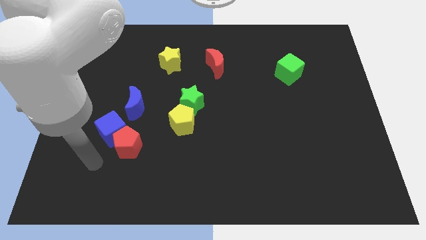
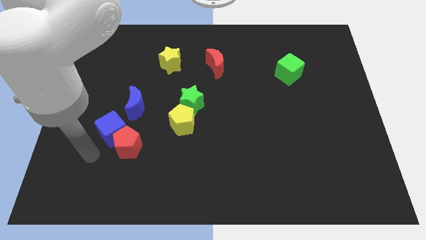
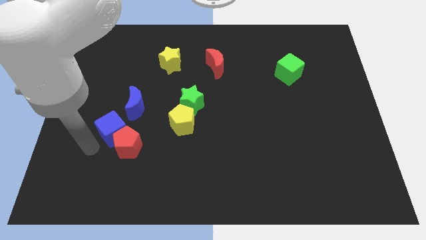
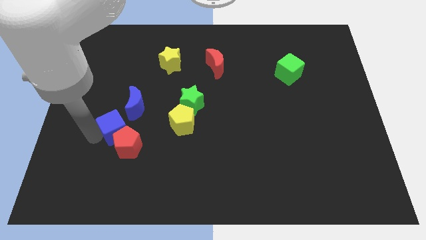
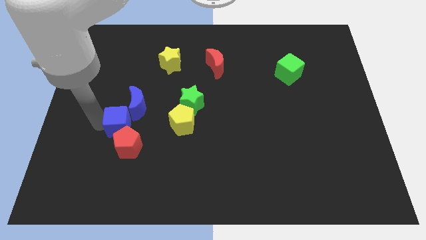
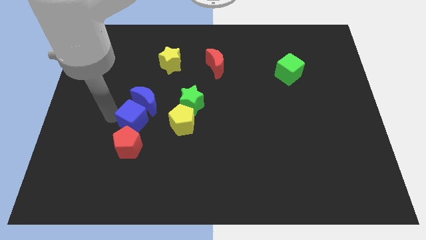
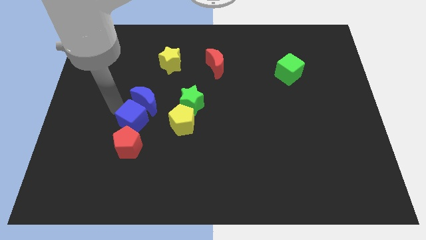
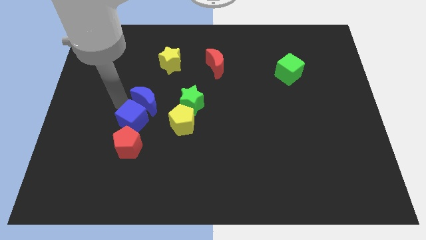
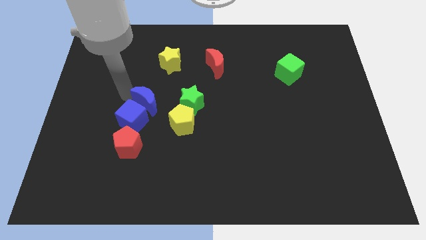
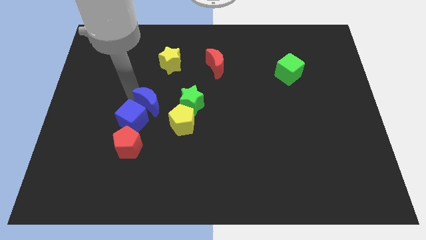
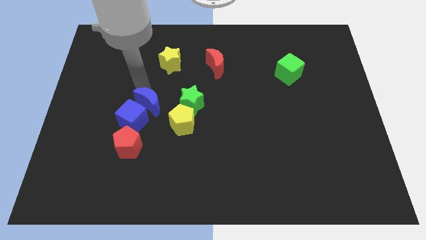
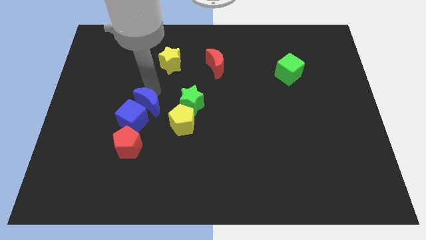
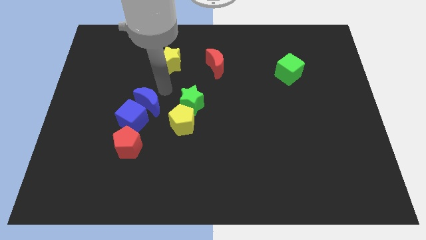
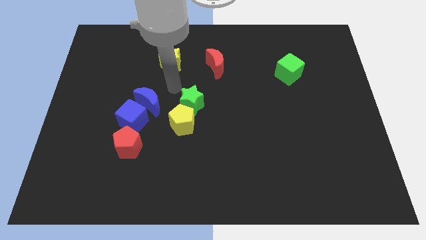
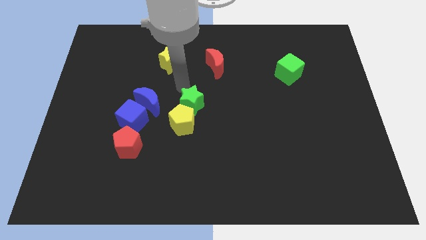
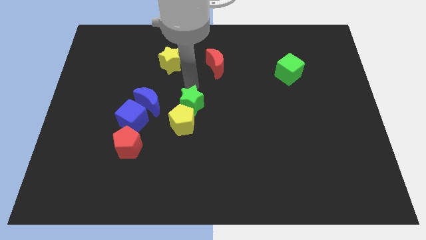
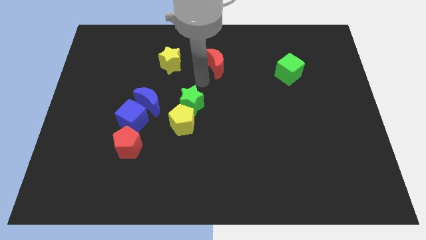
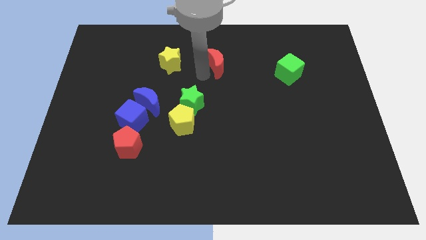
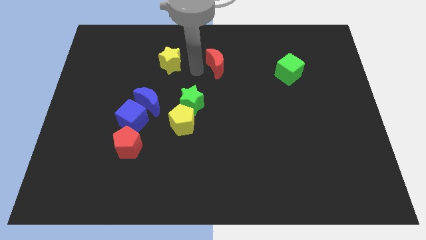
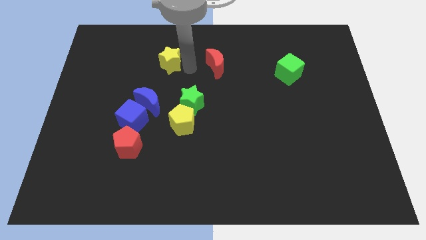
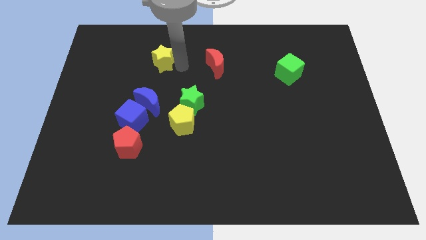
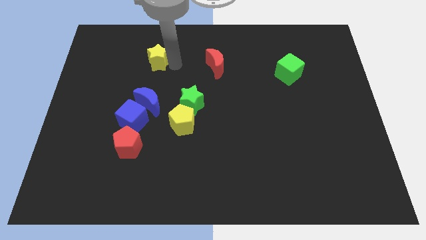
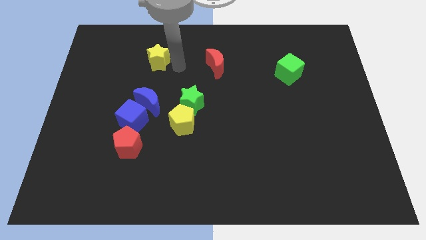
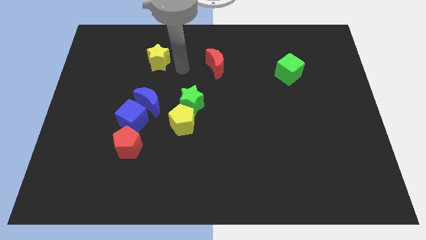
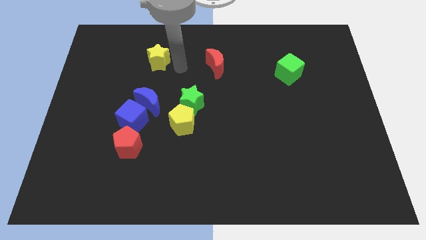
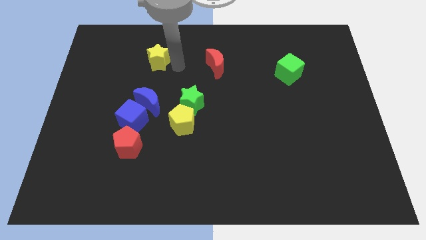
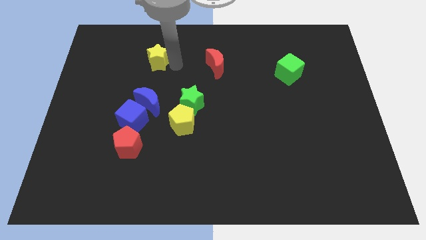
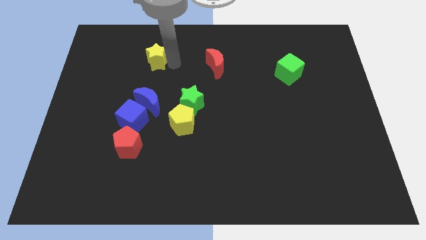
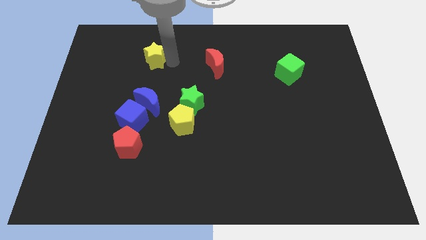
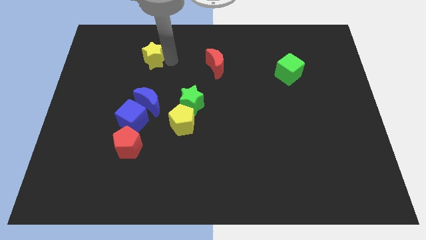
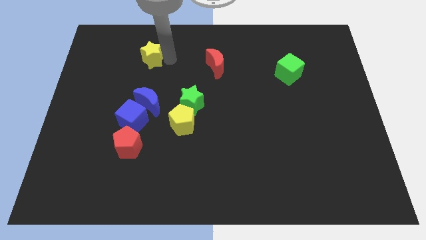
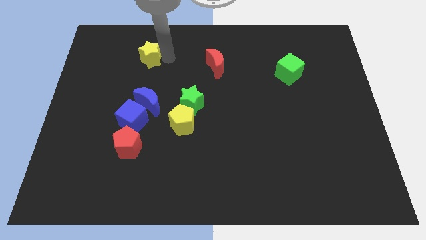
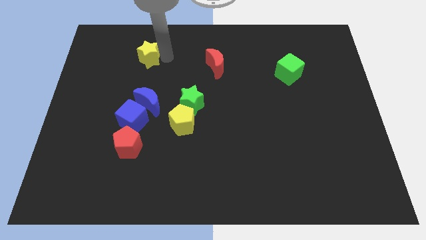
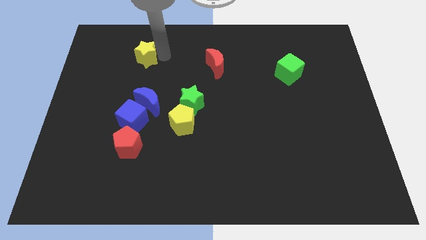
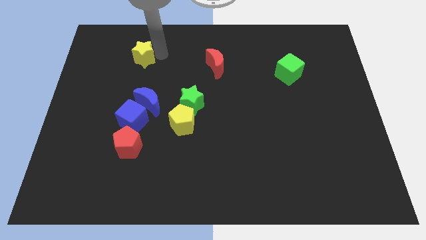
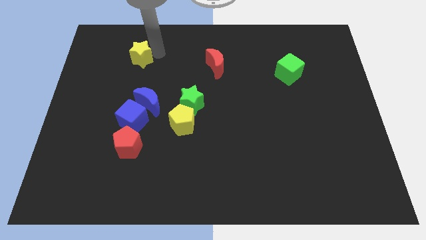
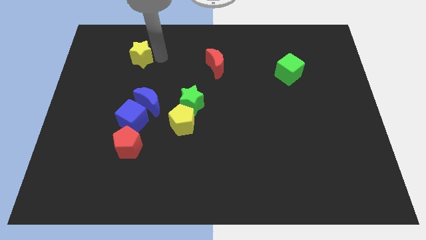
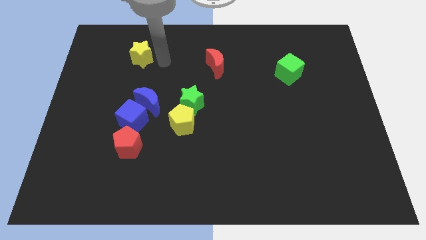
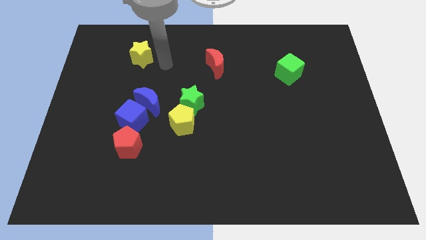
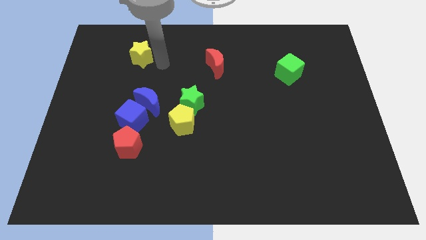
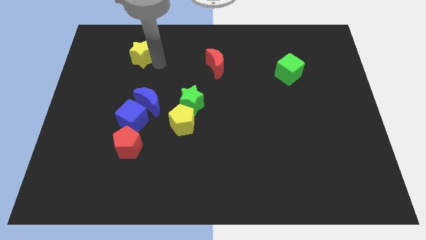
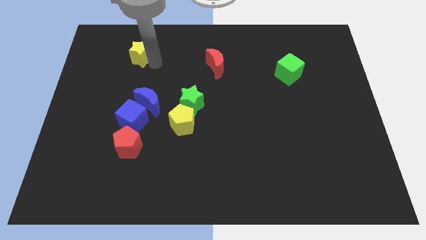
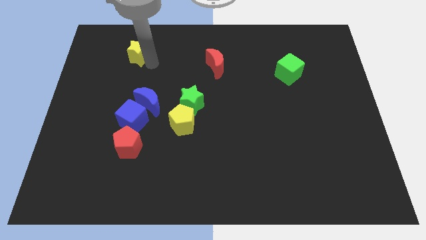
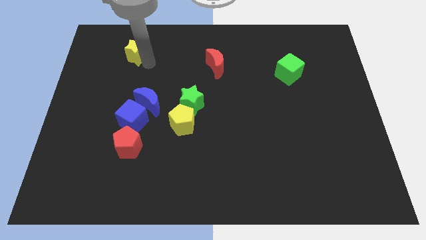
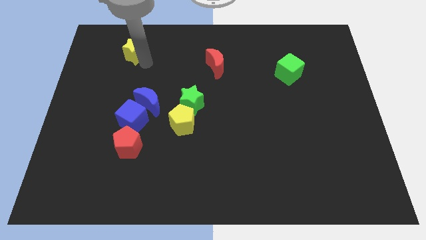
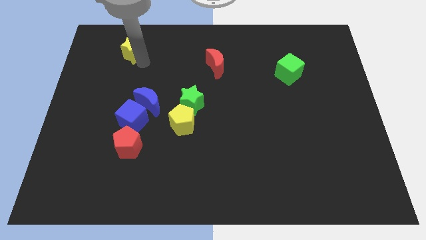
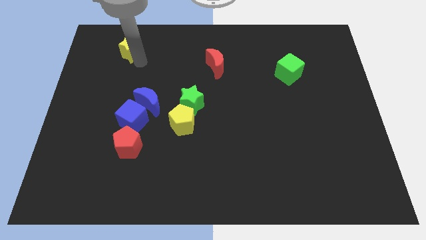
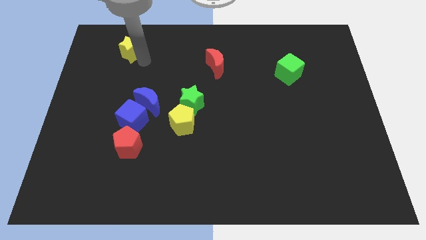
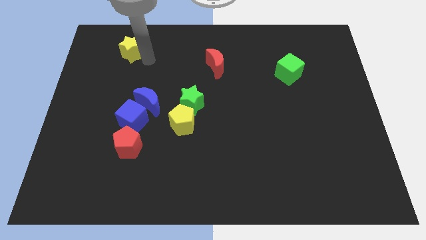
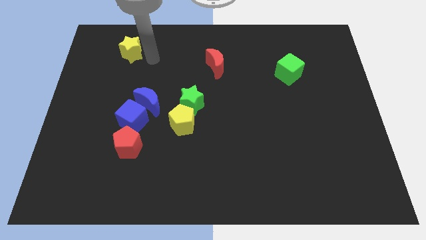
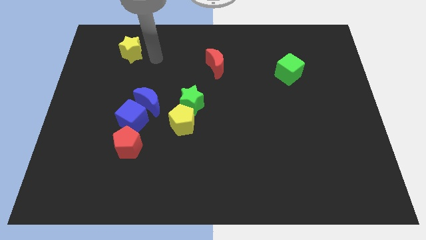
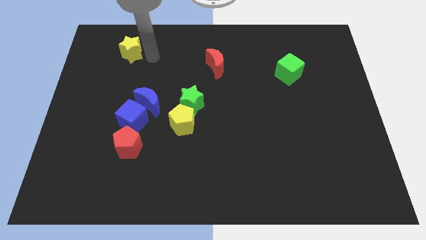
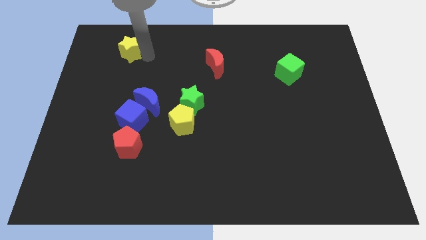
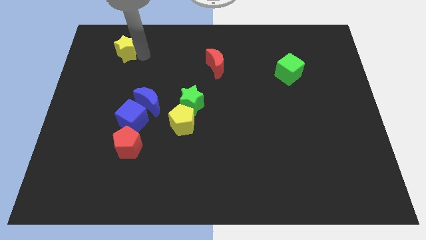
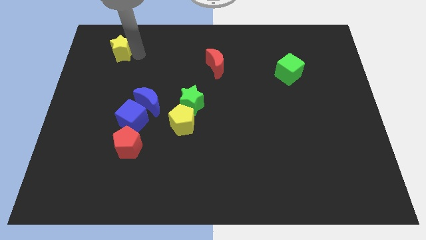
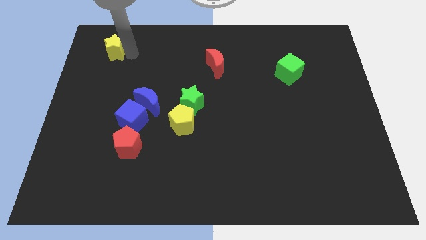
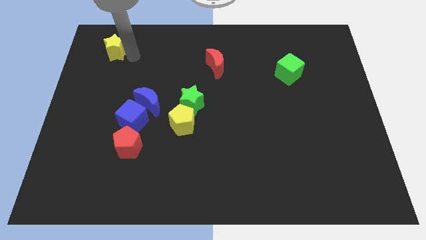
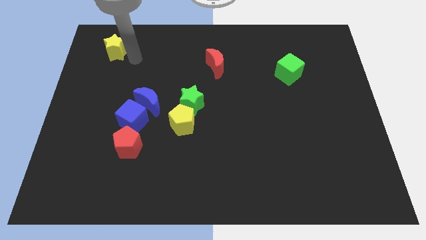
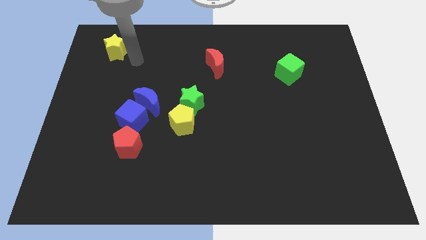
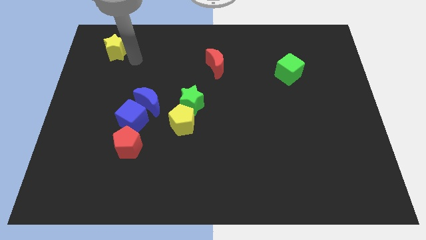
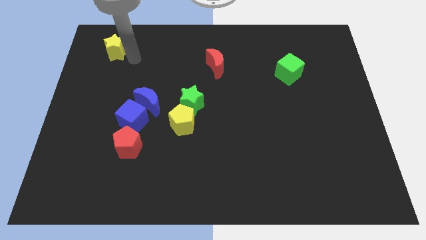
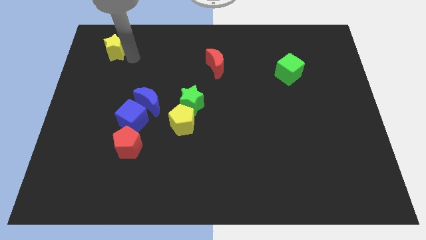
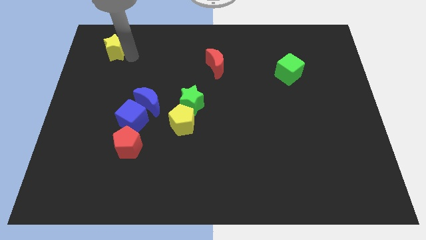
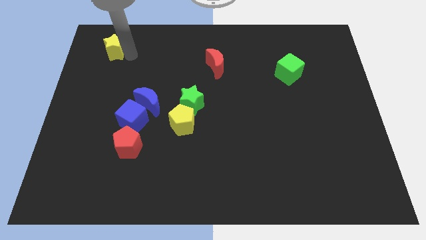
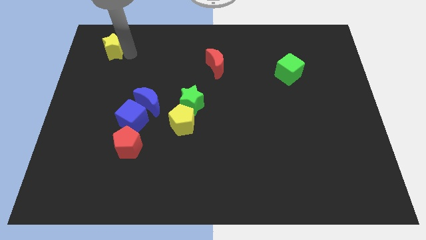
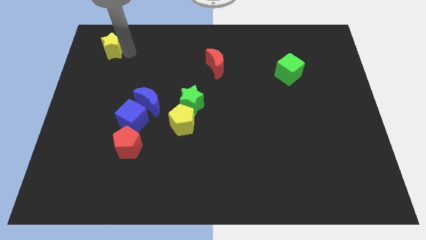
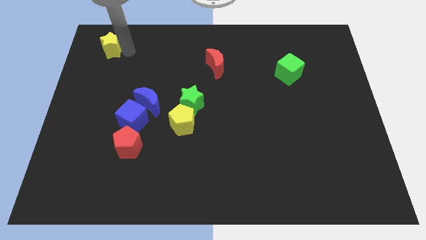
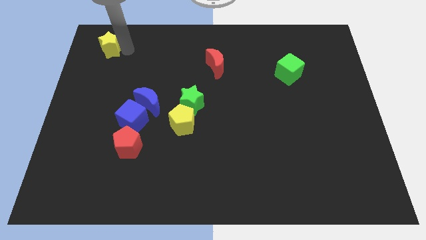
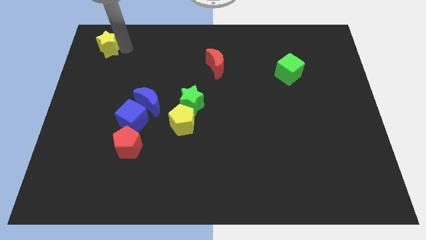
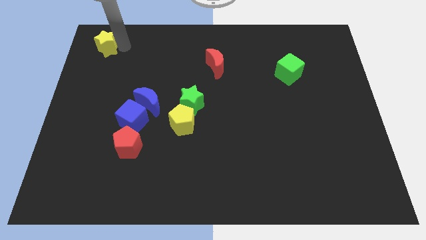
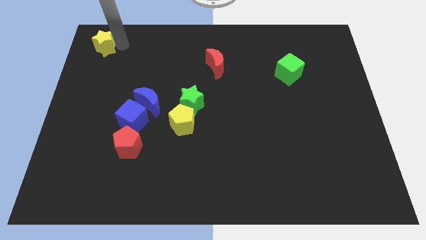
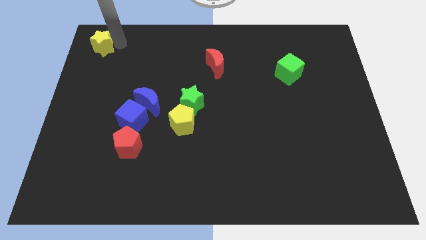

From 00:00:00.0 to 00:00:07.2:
push the yellow star to the upper left corner
